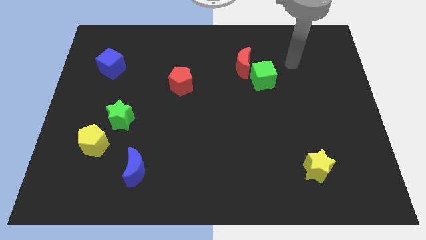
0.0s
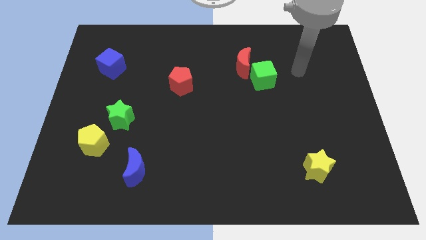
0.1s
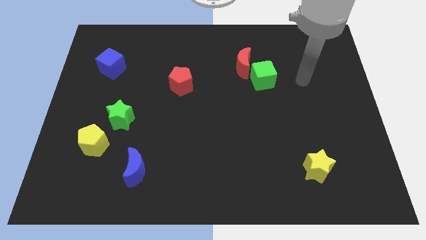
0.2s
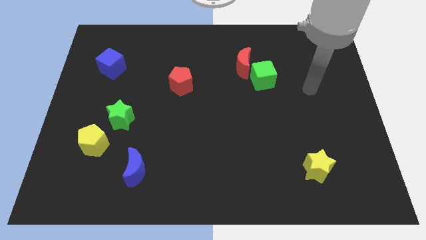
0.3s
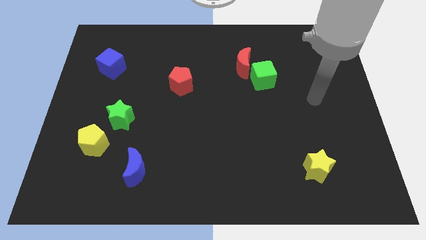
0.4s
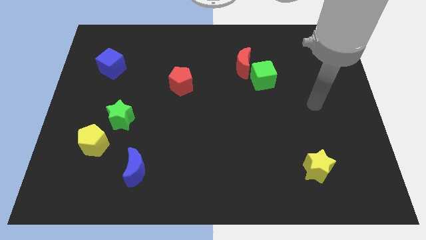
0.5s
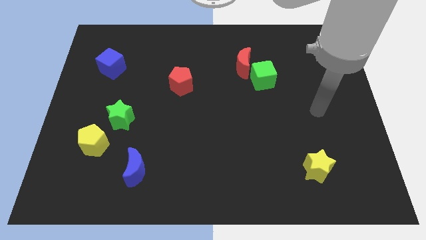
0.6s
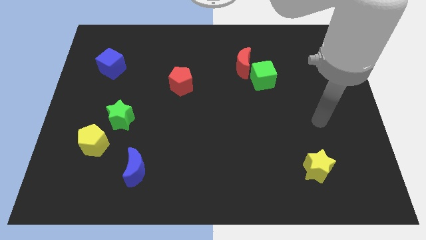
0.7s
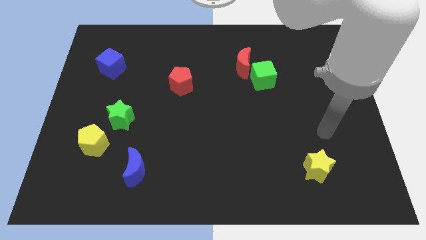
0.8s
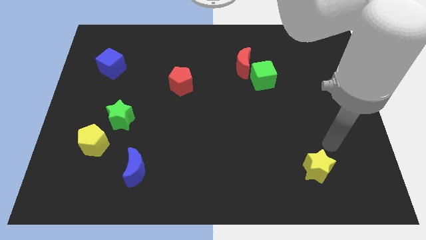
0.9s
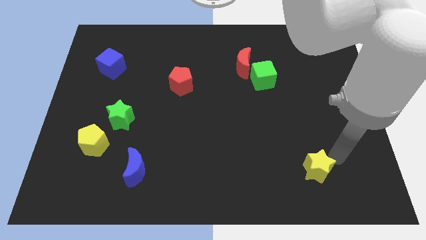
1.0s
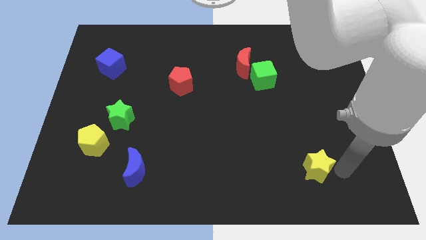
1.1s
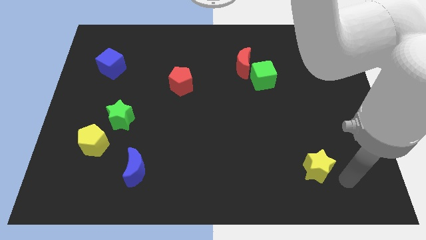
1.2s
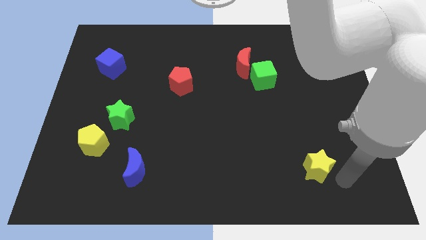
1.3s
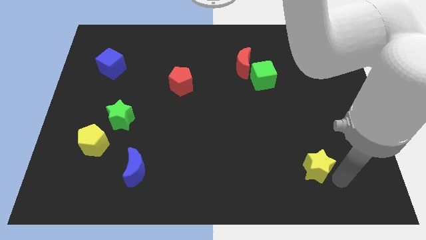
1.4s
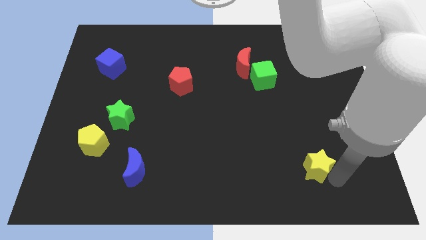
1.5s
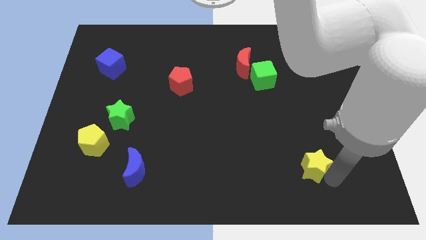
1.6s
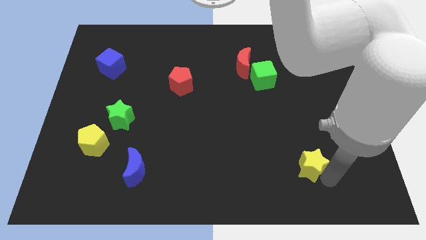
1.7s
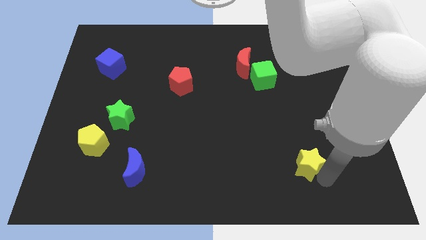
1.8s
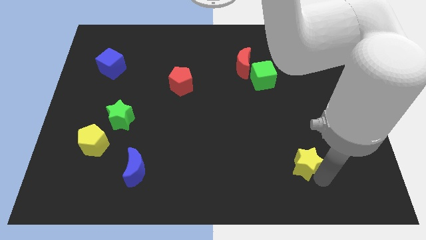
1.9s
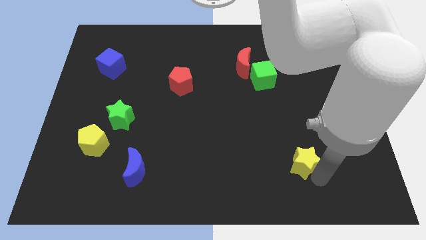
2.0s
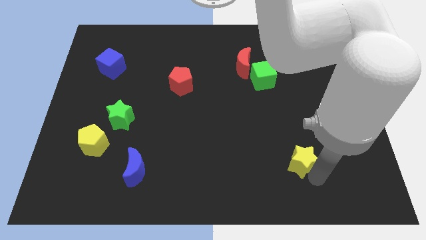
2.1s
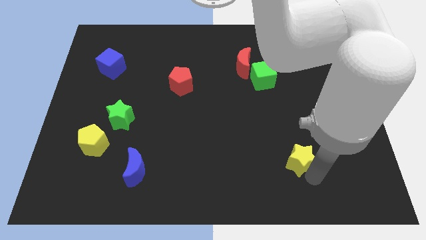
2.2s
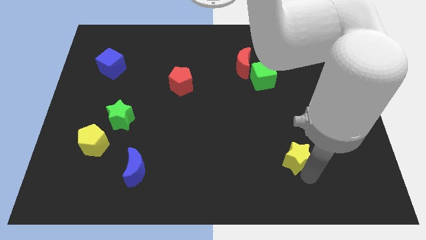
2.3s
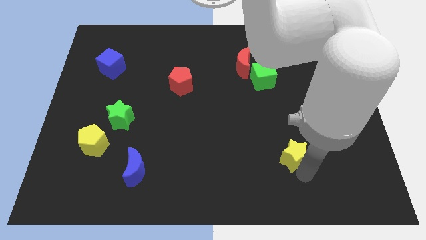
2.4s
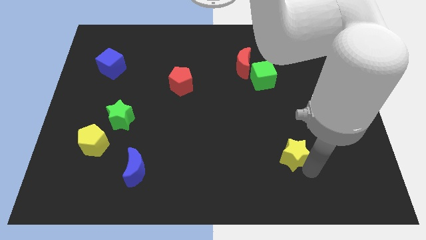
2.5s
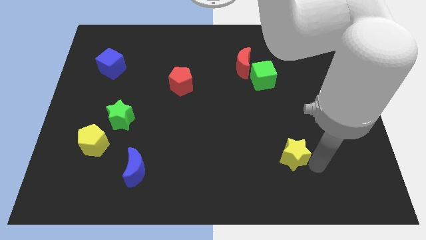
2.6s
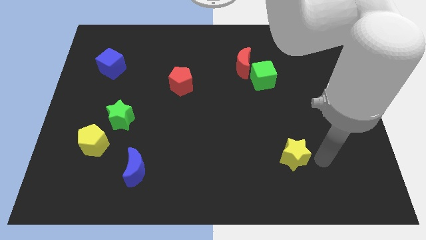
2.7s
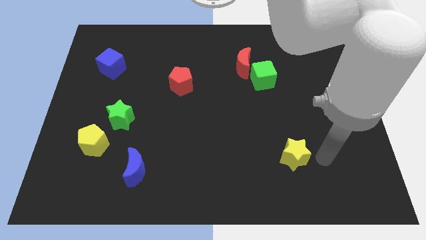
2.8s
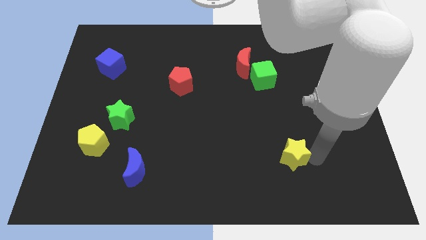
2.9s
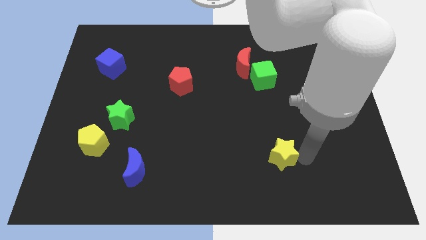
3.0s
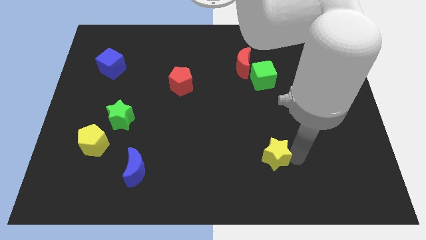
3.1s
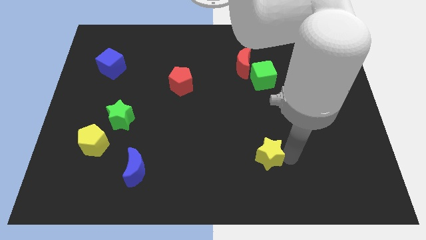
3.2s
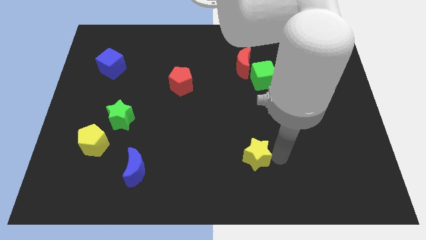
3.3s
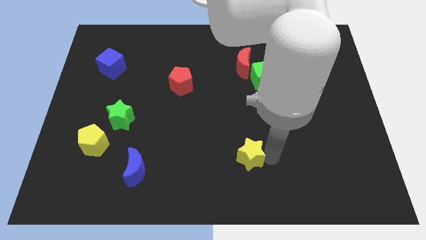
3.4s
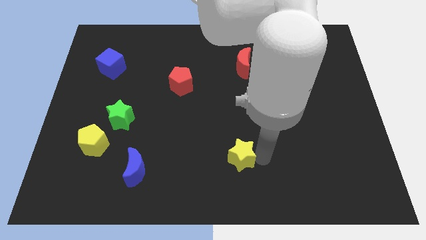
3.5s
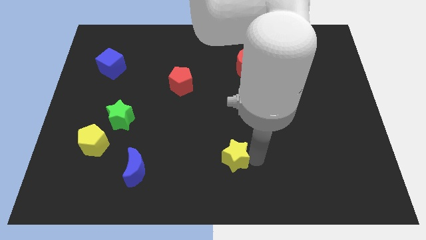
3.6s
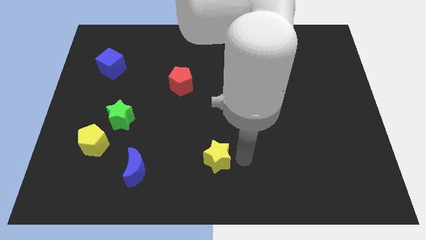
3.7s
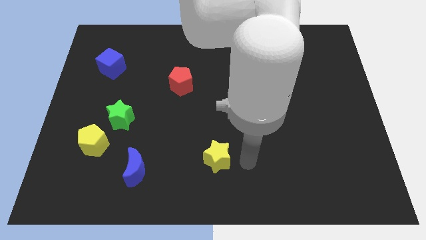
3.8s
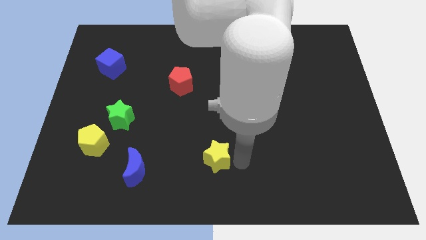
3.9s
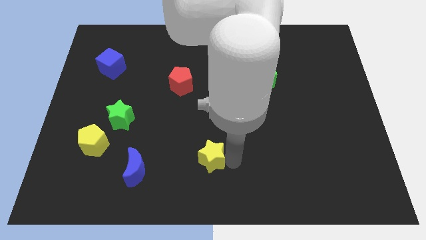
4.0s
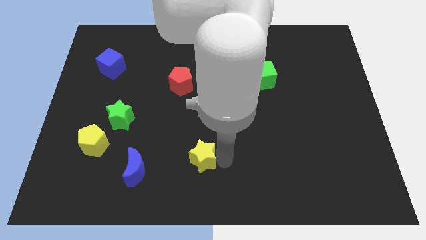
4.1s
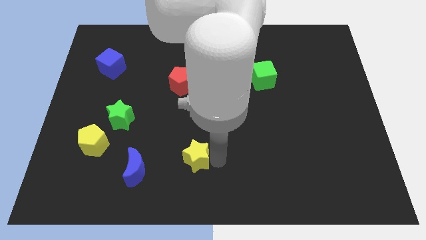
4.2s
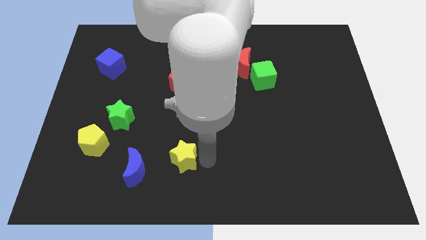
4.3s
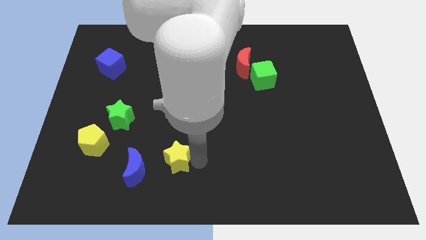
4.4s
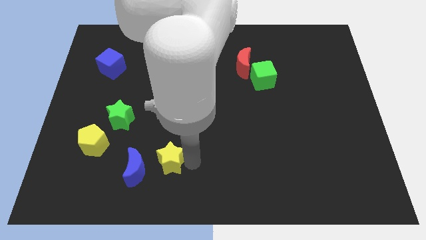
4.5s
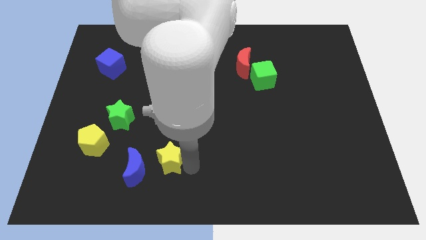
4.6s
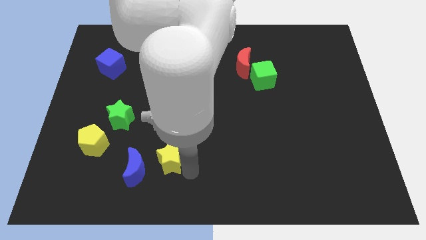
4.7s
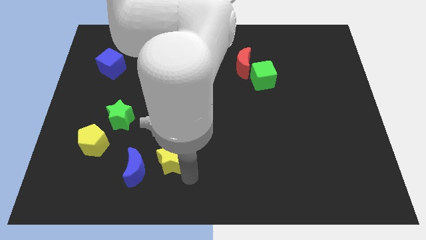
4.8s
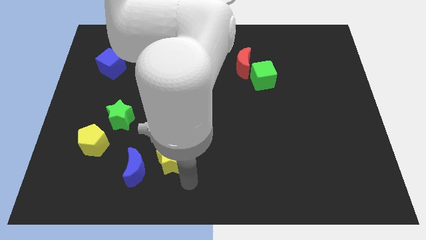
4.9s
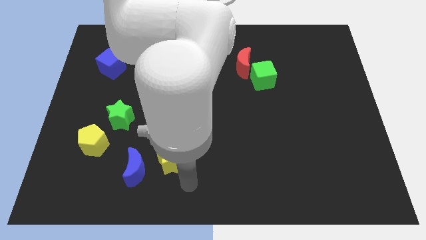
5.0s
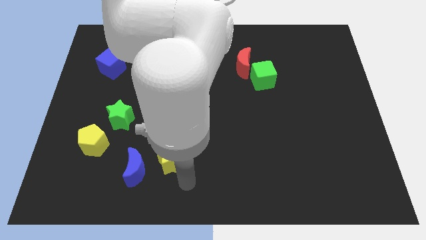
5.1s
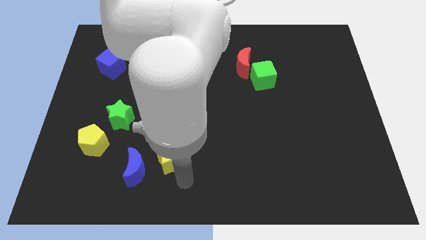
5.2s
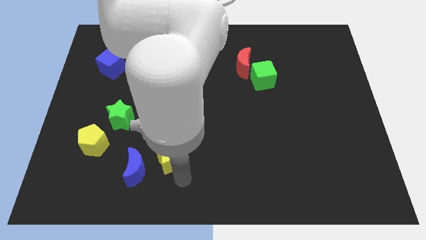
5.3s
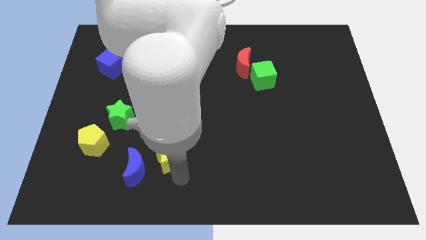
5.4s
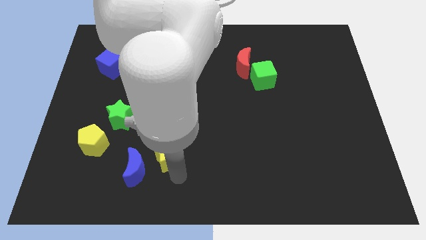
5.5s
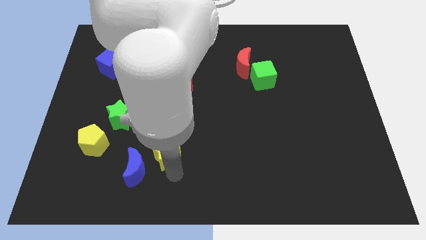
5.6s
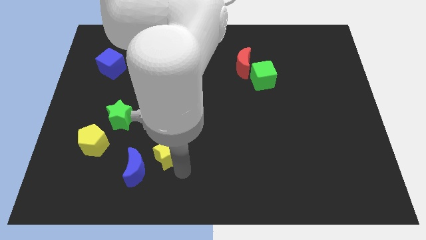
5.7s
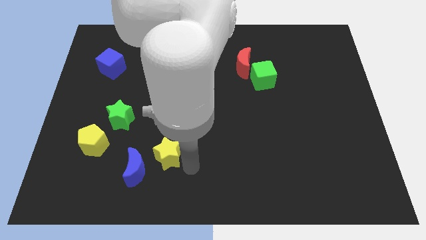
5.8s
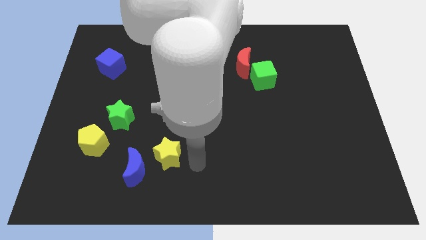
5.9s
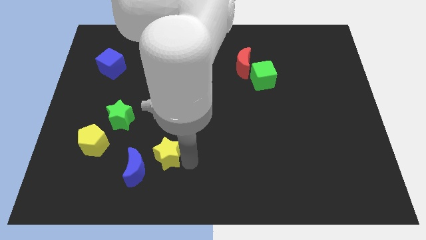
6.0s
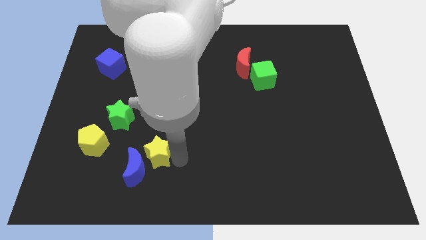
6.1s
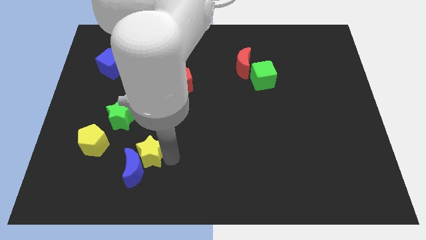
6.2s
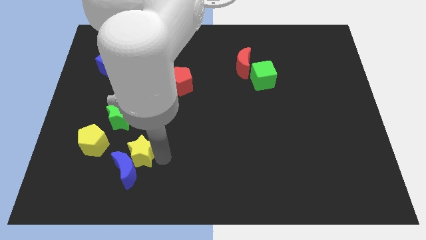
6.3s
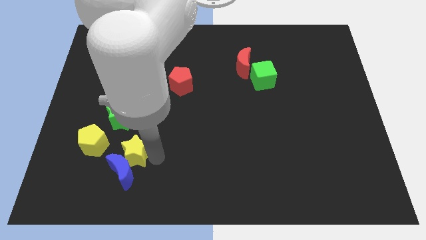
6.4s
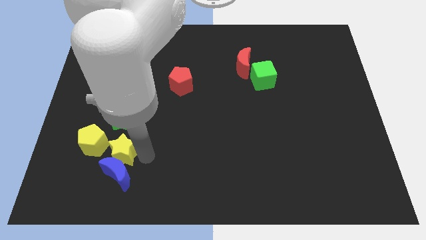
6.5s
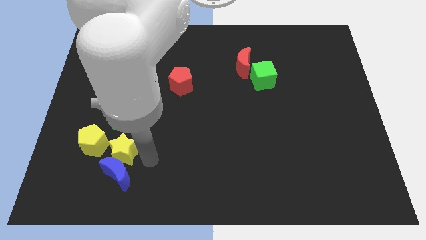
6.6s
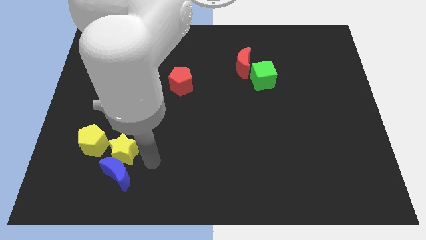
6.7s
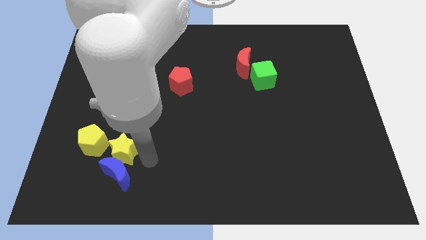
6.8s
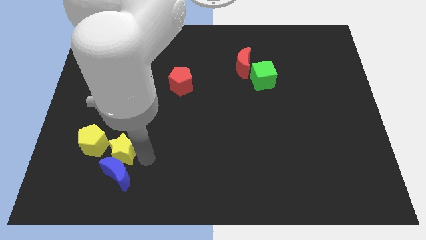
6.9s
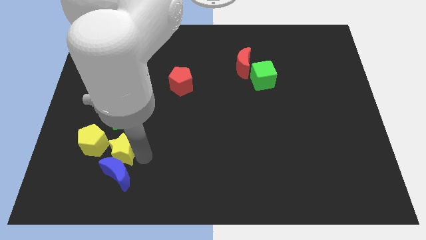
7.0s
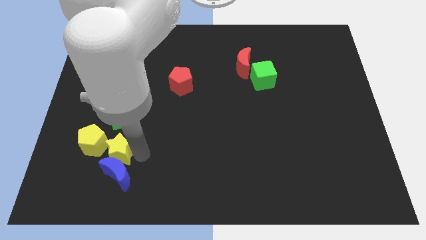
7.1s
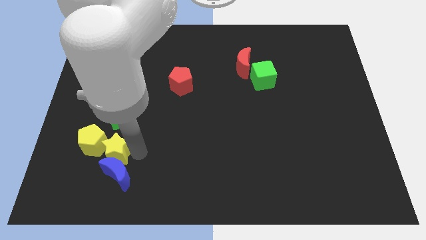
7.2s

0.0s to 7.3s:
move the yellow star to the yellow pentagon
